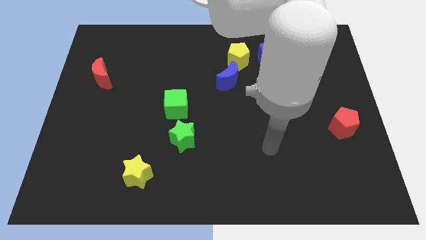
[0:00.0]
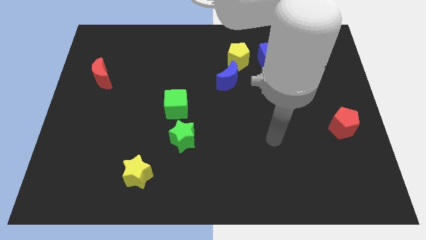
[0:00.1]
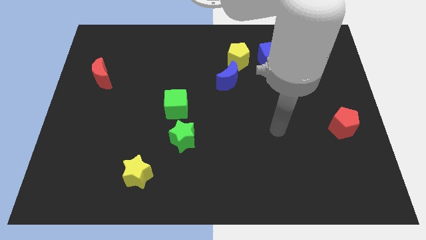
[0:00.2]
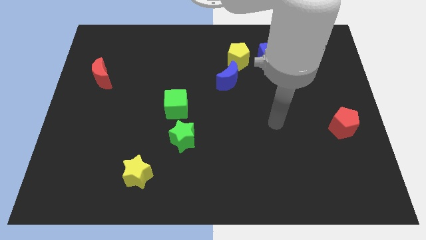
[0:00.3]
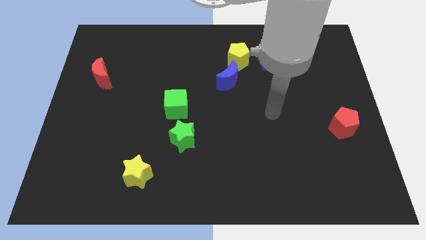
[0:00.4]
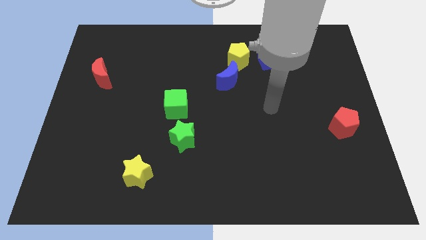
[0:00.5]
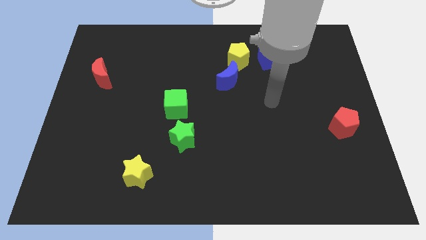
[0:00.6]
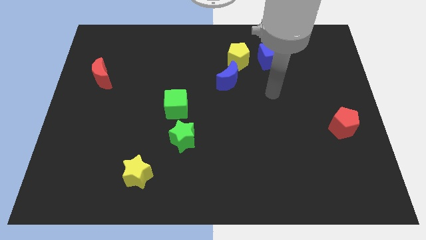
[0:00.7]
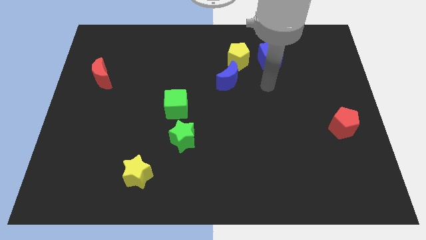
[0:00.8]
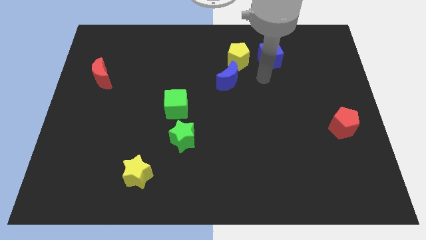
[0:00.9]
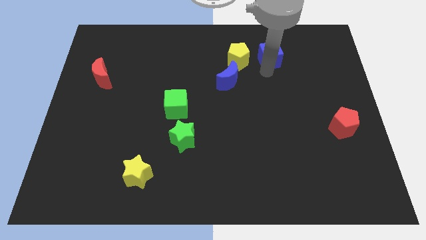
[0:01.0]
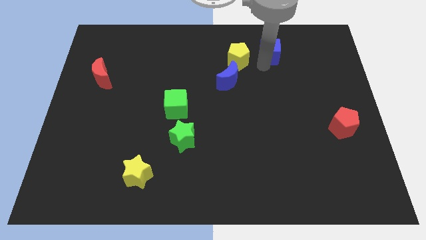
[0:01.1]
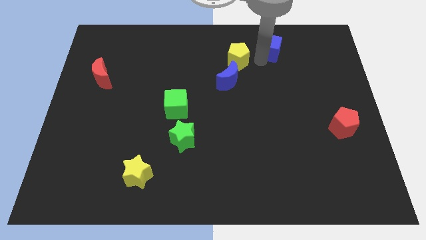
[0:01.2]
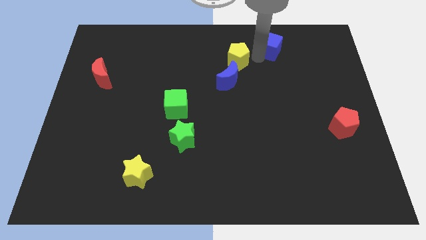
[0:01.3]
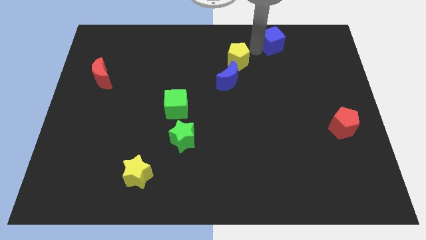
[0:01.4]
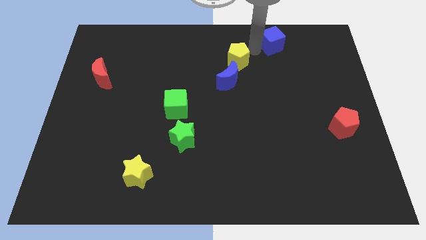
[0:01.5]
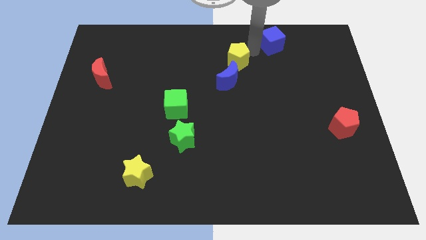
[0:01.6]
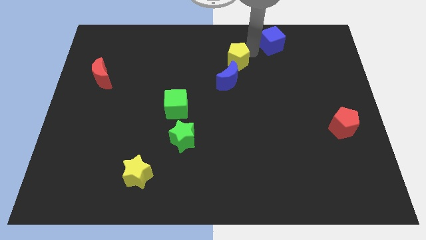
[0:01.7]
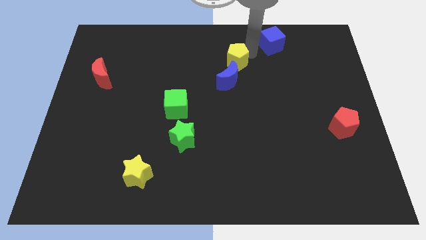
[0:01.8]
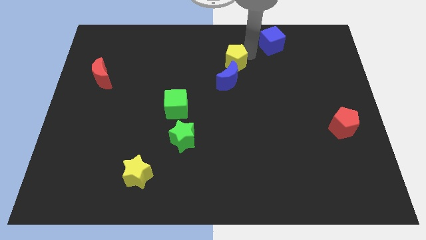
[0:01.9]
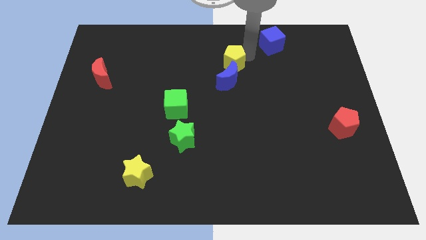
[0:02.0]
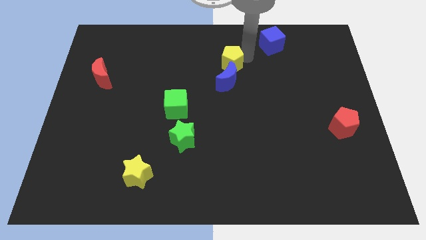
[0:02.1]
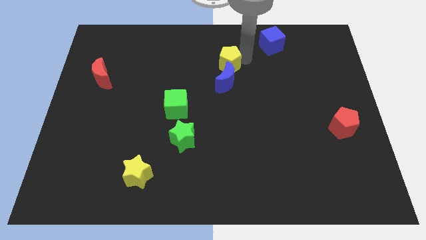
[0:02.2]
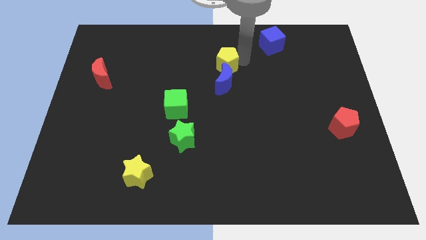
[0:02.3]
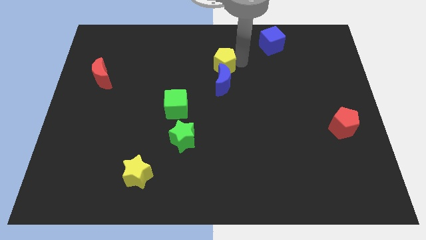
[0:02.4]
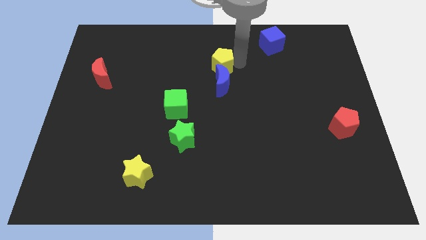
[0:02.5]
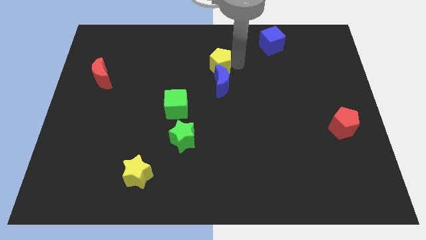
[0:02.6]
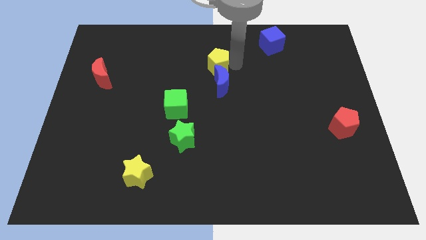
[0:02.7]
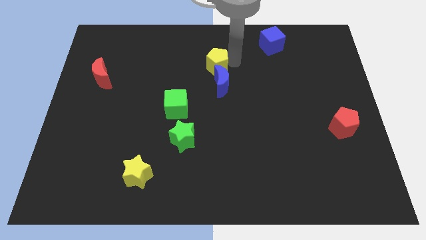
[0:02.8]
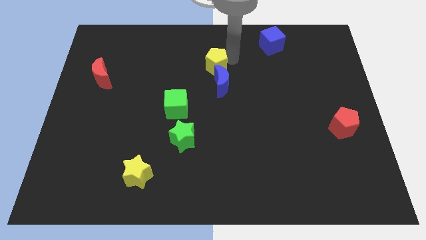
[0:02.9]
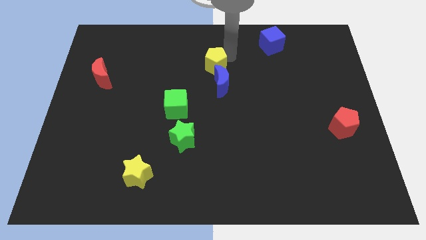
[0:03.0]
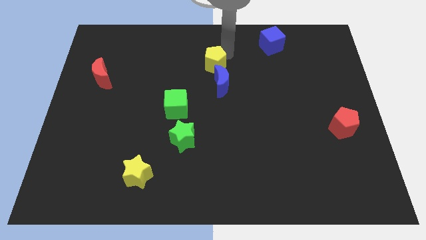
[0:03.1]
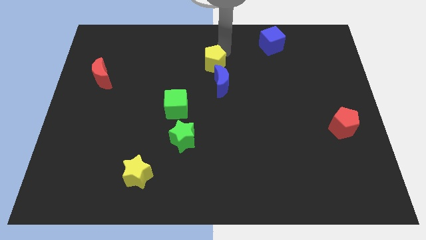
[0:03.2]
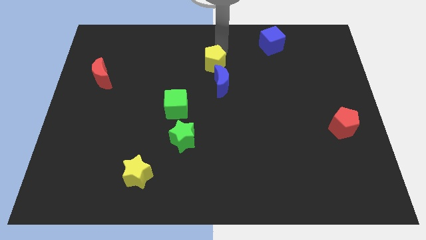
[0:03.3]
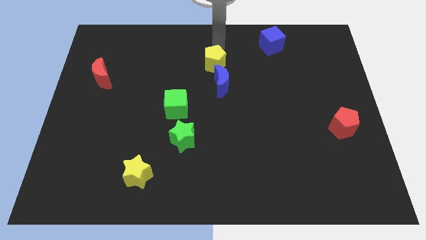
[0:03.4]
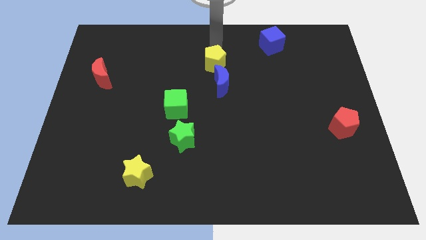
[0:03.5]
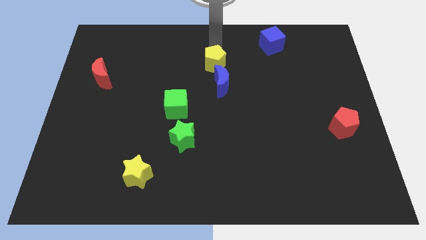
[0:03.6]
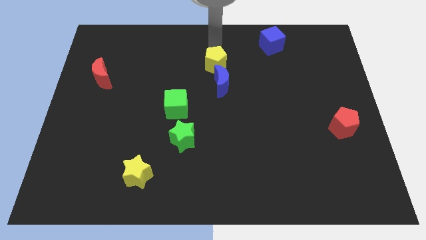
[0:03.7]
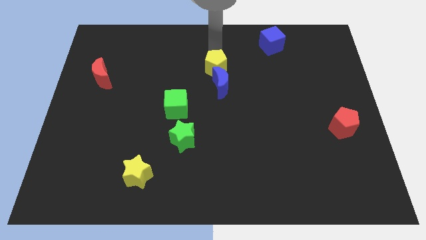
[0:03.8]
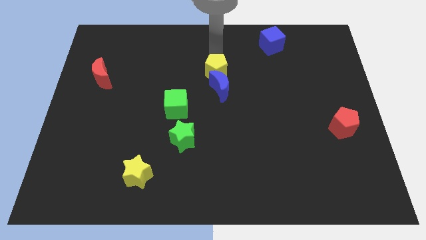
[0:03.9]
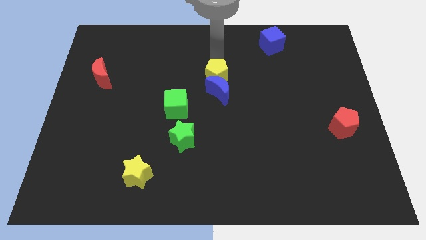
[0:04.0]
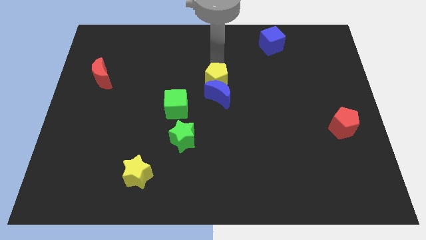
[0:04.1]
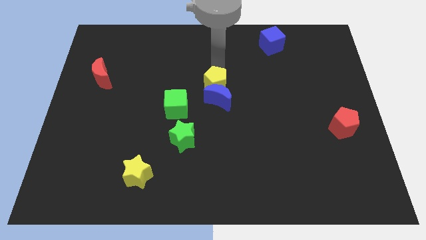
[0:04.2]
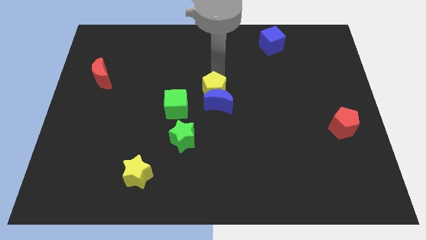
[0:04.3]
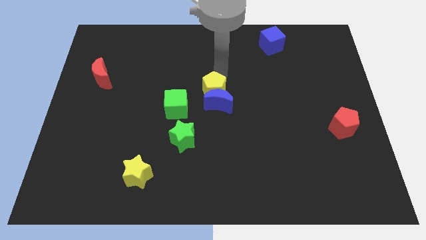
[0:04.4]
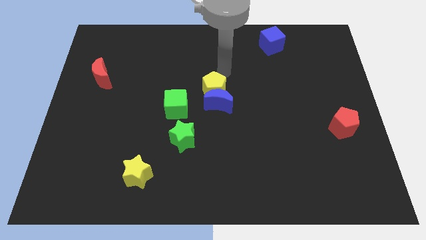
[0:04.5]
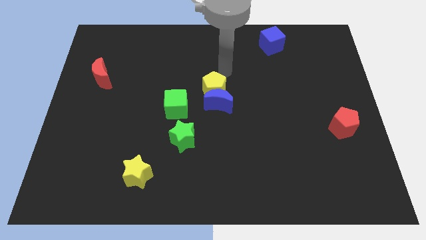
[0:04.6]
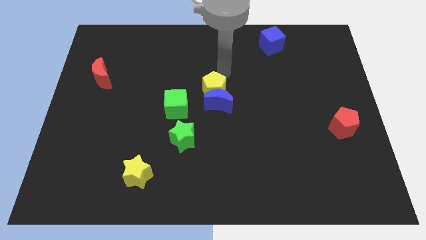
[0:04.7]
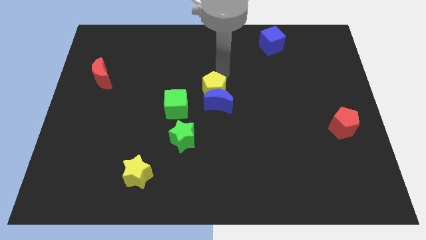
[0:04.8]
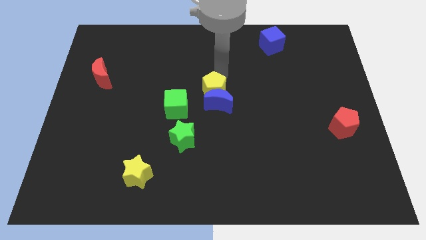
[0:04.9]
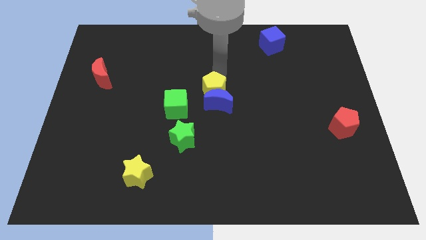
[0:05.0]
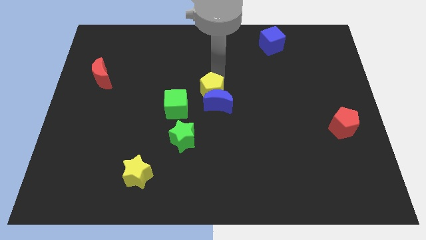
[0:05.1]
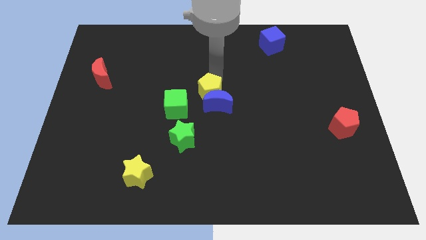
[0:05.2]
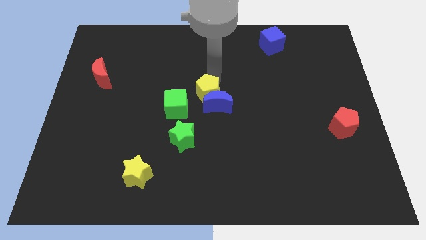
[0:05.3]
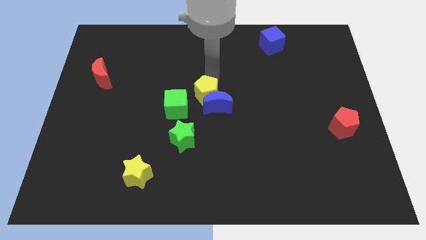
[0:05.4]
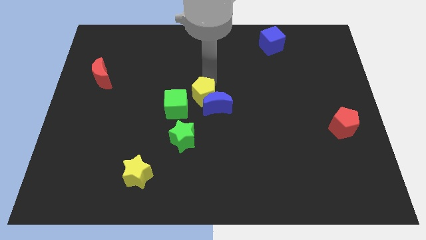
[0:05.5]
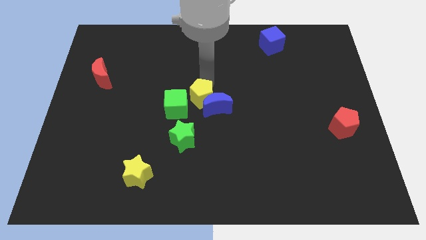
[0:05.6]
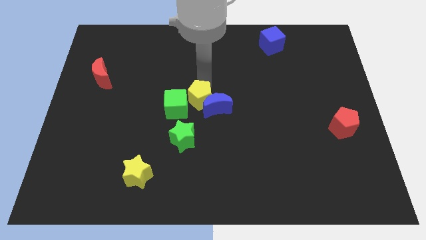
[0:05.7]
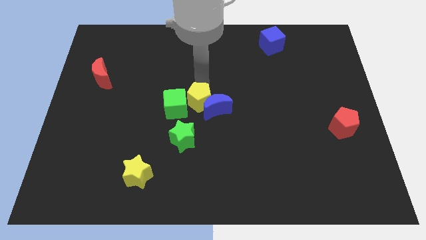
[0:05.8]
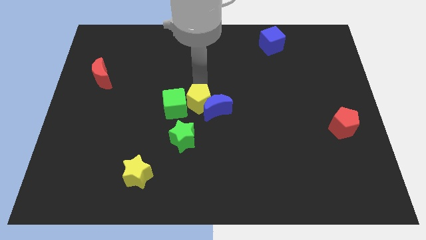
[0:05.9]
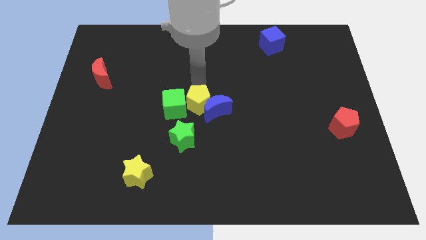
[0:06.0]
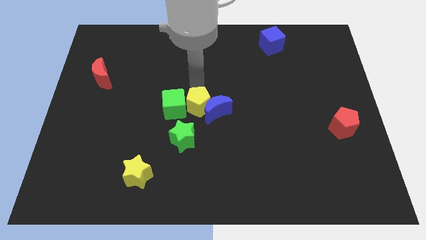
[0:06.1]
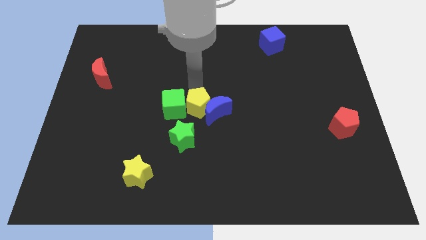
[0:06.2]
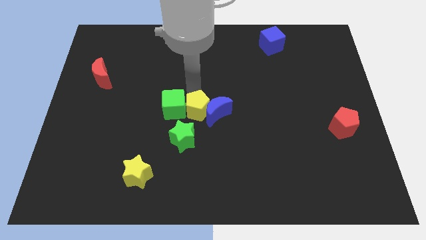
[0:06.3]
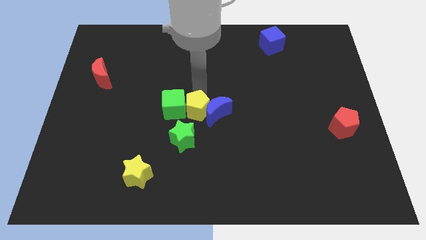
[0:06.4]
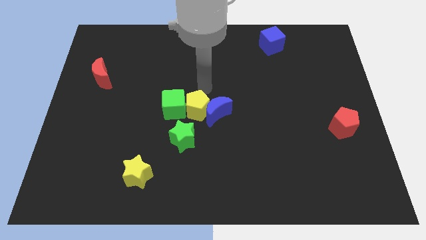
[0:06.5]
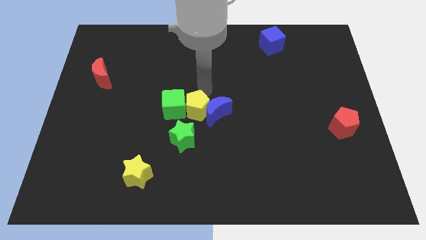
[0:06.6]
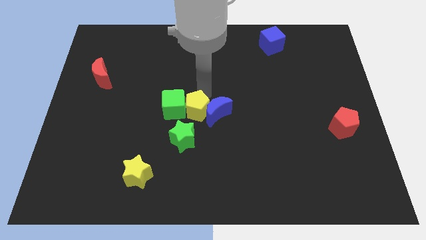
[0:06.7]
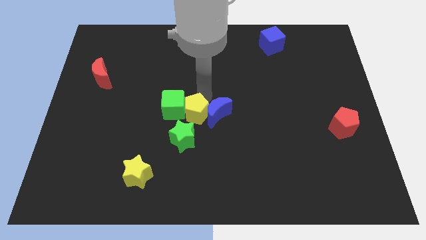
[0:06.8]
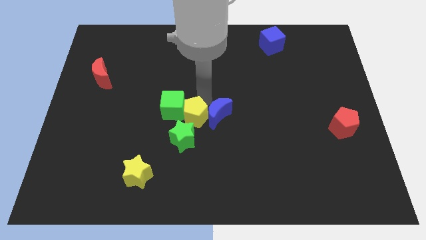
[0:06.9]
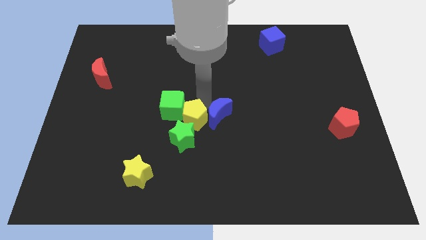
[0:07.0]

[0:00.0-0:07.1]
slide the yellow pentagon to the green star

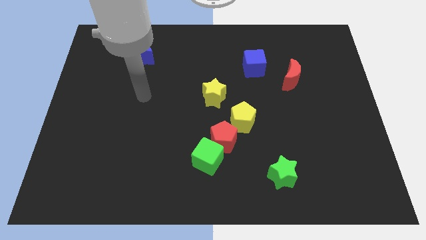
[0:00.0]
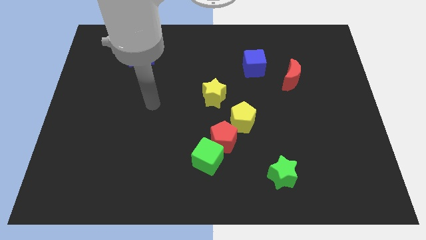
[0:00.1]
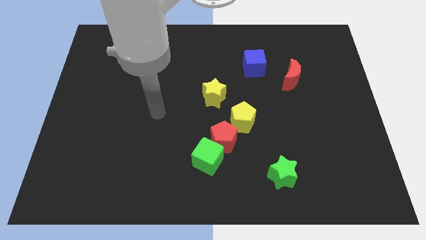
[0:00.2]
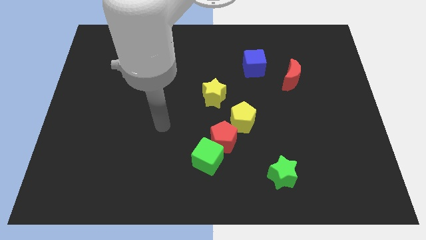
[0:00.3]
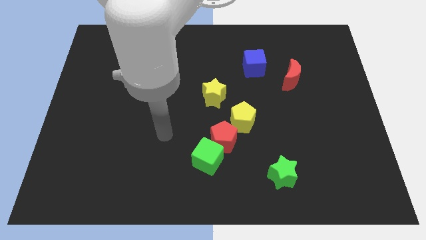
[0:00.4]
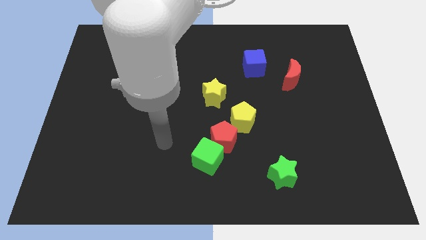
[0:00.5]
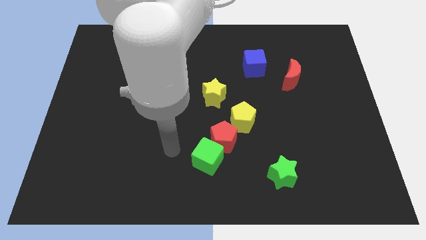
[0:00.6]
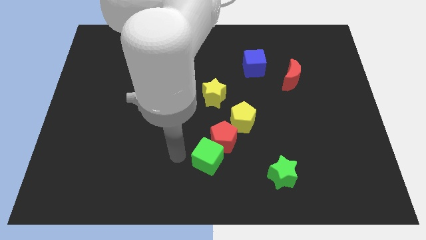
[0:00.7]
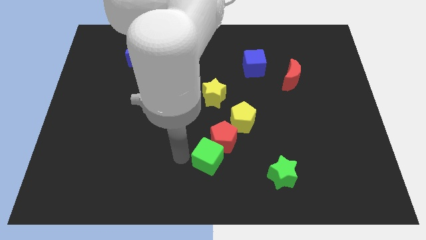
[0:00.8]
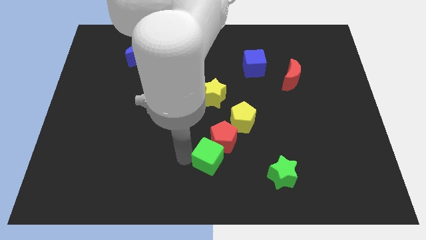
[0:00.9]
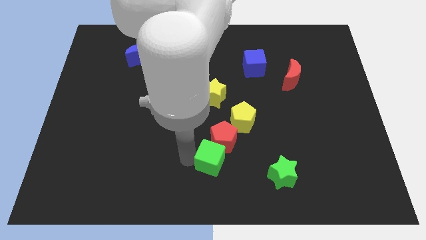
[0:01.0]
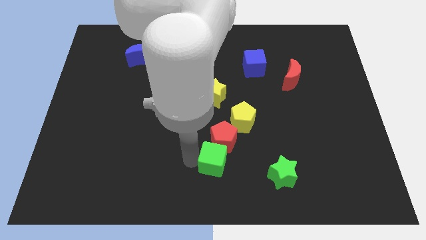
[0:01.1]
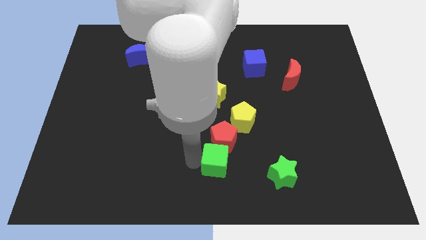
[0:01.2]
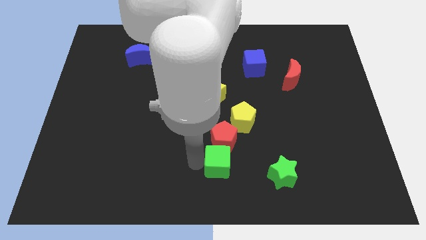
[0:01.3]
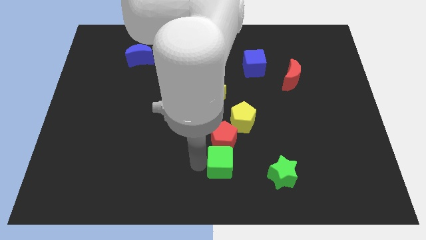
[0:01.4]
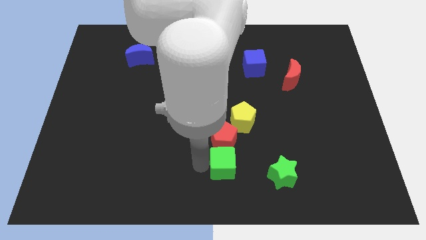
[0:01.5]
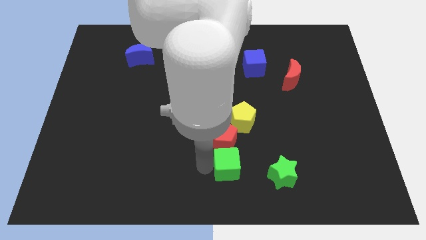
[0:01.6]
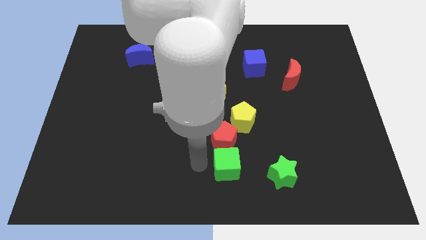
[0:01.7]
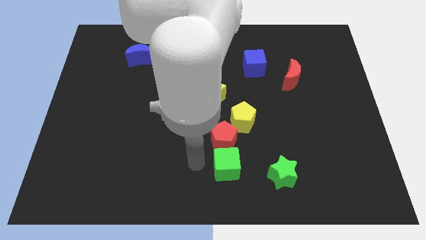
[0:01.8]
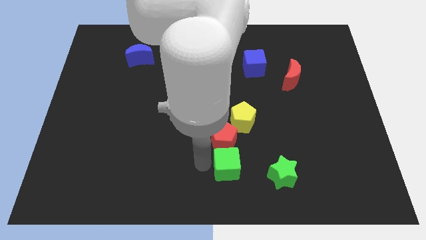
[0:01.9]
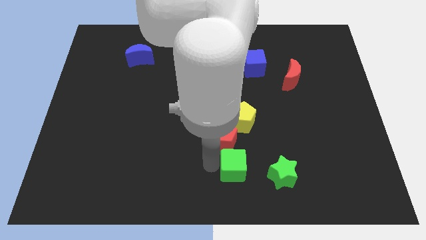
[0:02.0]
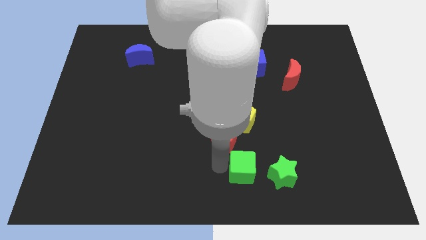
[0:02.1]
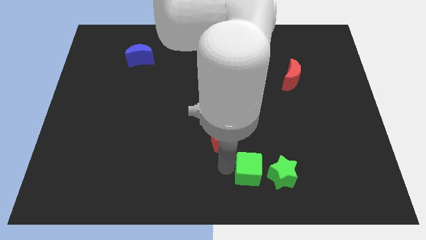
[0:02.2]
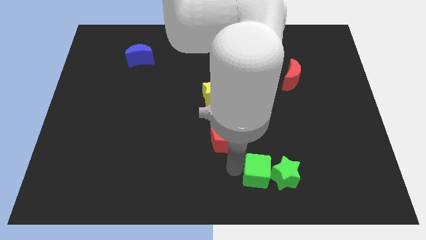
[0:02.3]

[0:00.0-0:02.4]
put the green cube towards the green star
